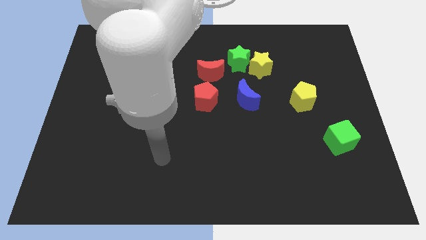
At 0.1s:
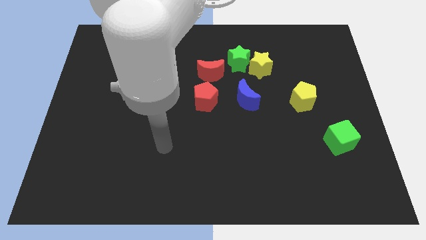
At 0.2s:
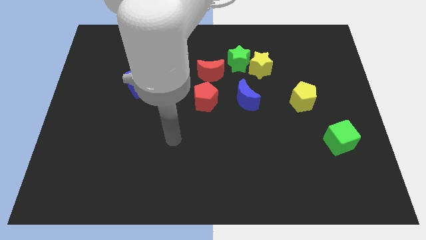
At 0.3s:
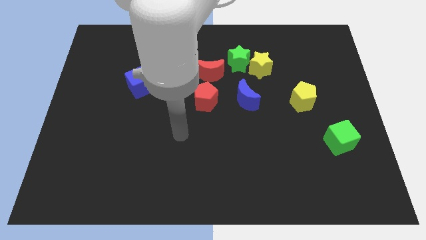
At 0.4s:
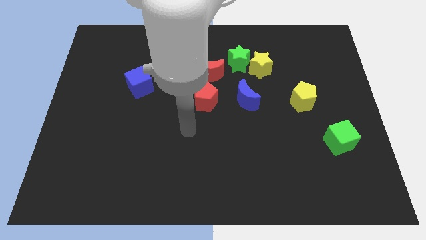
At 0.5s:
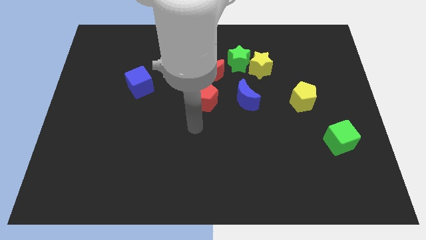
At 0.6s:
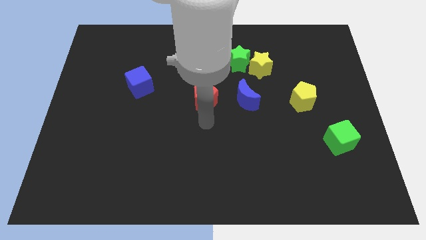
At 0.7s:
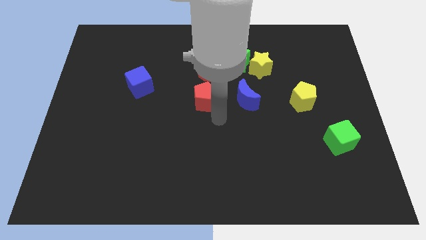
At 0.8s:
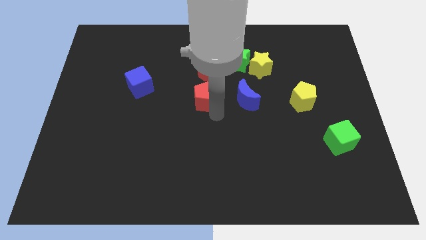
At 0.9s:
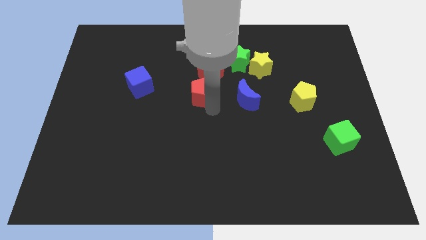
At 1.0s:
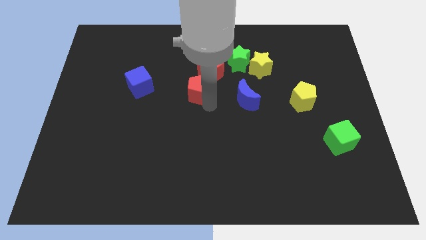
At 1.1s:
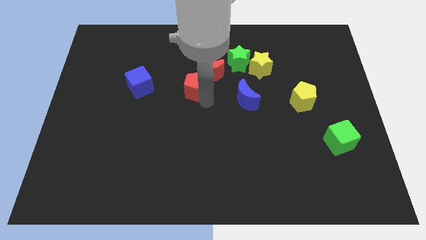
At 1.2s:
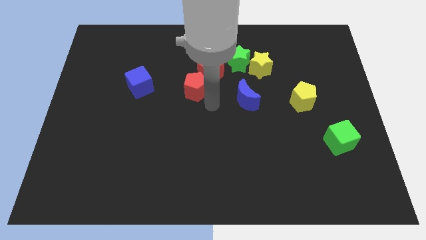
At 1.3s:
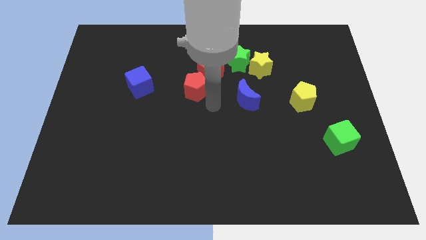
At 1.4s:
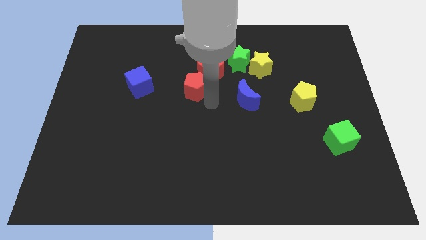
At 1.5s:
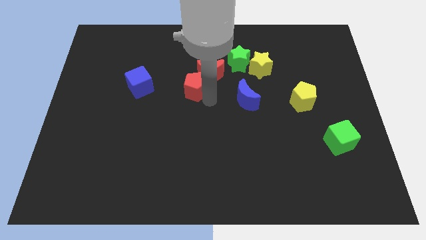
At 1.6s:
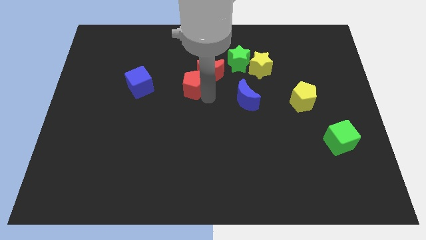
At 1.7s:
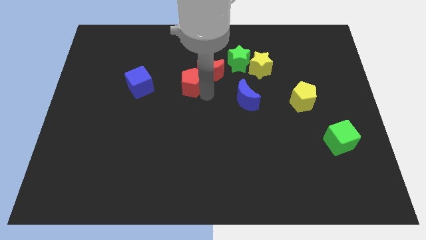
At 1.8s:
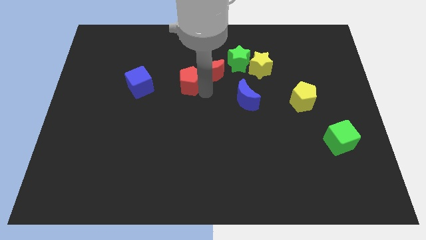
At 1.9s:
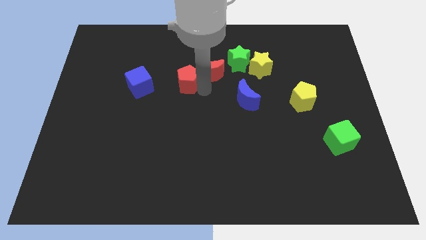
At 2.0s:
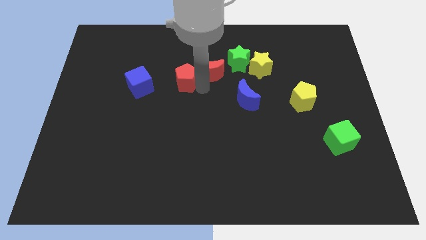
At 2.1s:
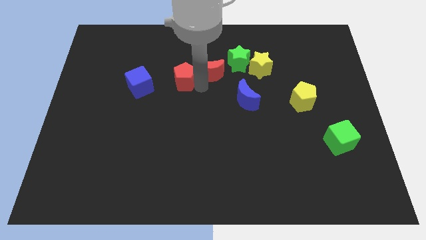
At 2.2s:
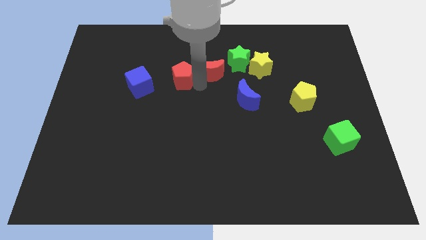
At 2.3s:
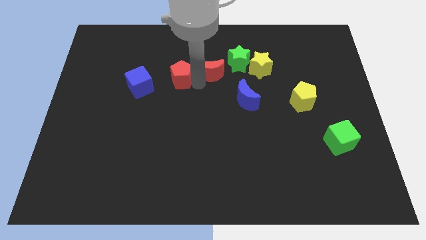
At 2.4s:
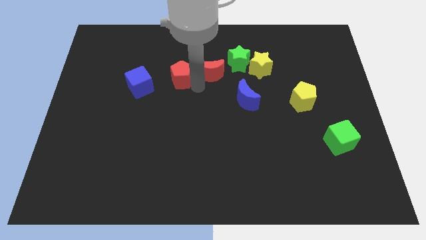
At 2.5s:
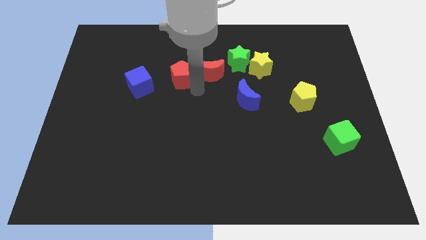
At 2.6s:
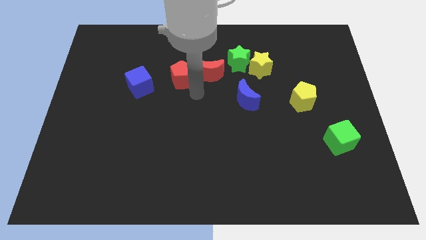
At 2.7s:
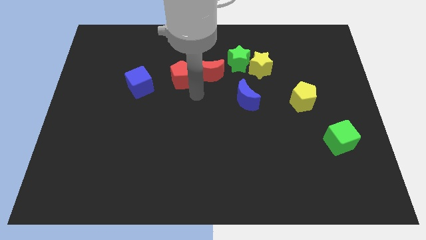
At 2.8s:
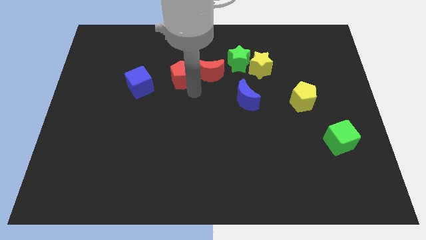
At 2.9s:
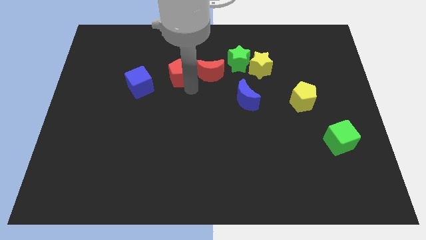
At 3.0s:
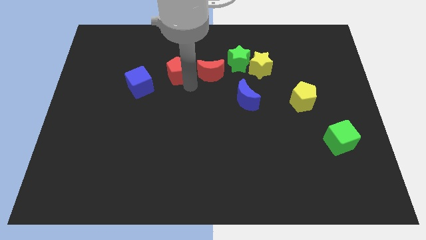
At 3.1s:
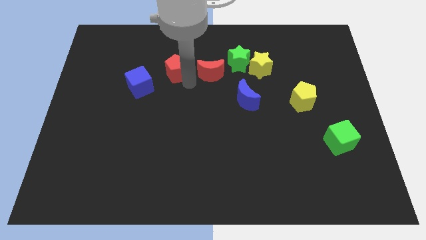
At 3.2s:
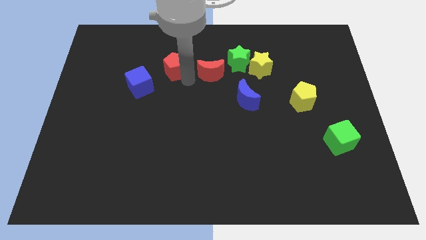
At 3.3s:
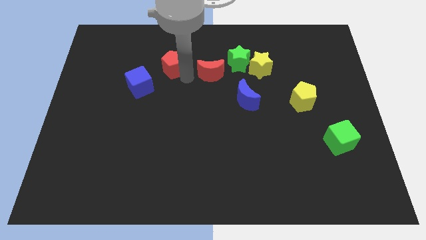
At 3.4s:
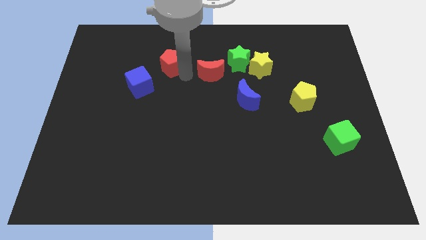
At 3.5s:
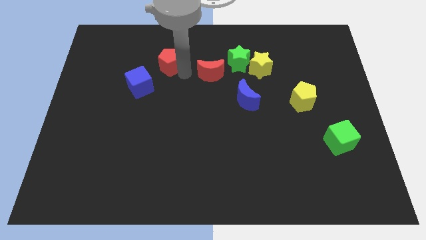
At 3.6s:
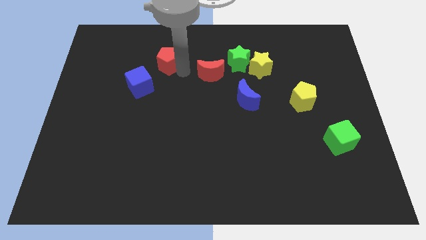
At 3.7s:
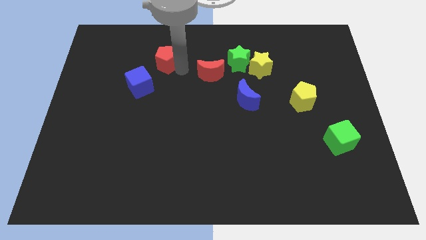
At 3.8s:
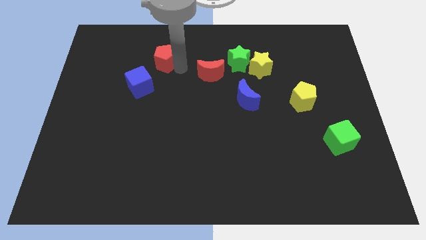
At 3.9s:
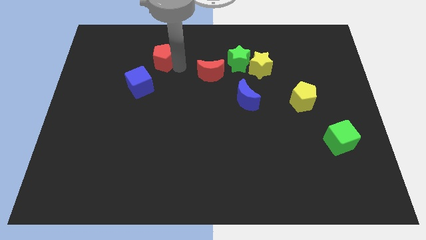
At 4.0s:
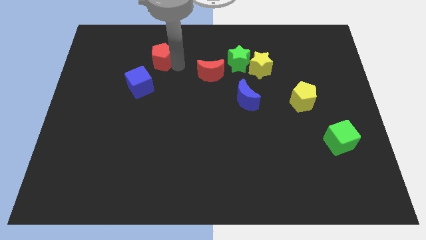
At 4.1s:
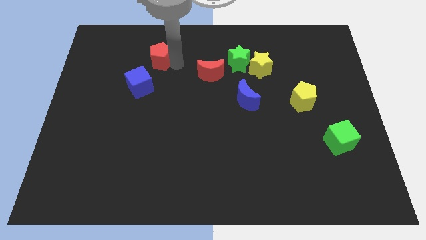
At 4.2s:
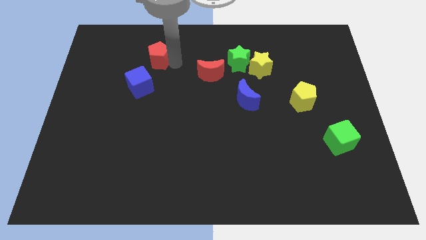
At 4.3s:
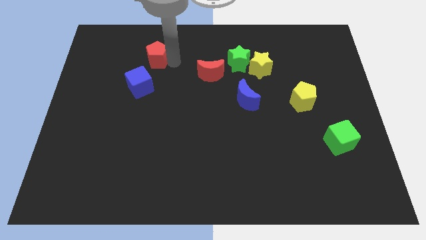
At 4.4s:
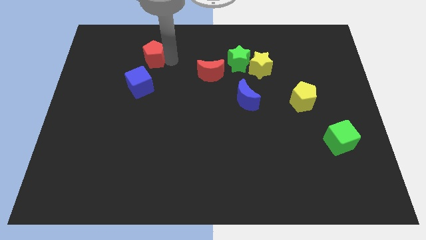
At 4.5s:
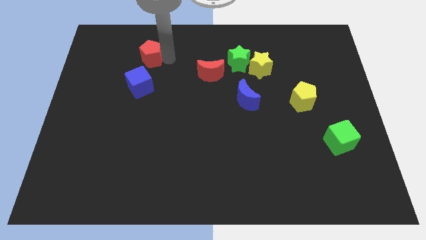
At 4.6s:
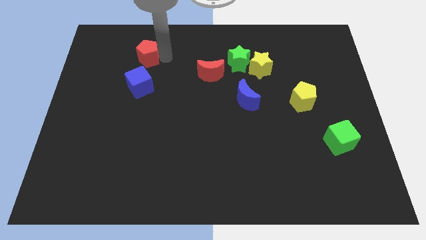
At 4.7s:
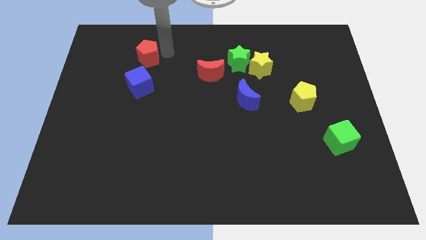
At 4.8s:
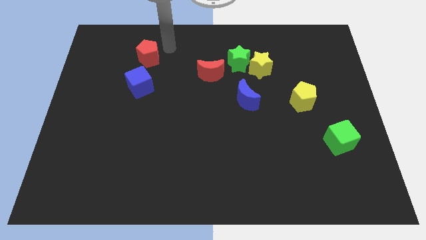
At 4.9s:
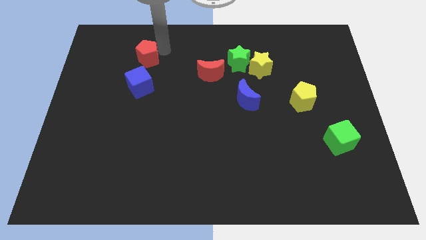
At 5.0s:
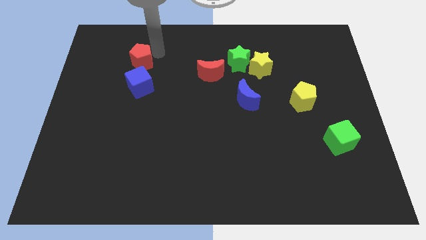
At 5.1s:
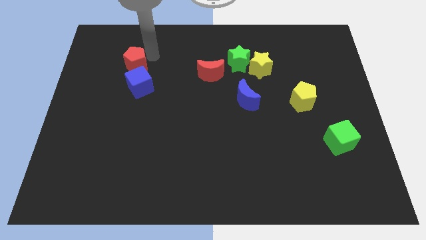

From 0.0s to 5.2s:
push the red pentagon diagonally up and to the left of the blue cube

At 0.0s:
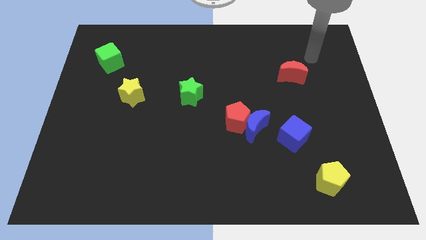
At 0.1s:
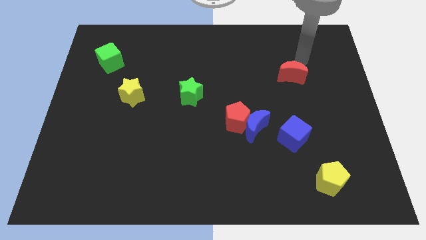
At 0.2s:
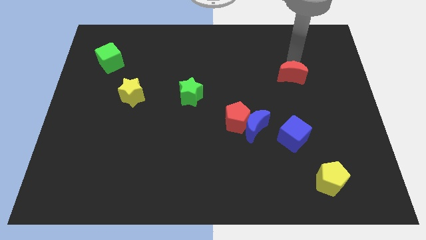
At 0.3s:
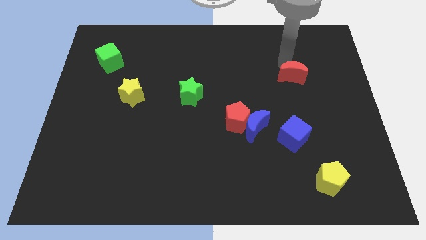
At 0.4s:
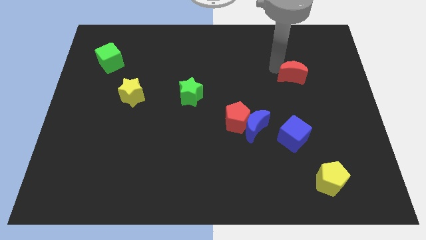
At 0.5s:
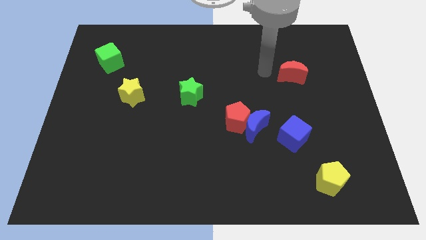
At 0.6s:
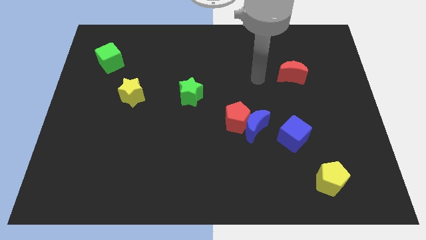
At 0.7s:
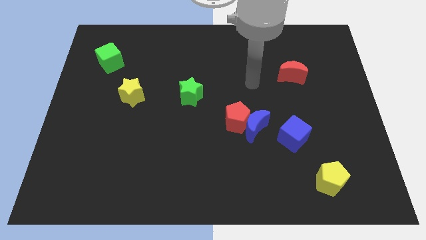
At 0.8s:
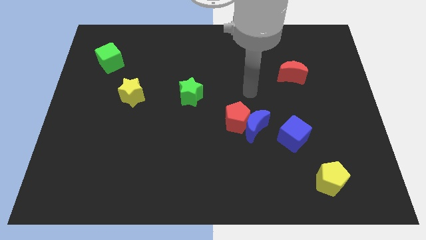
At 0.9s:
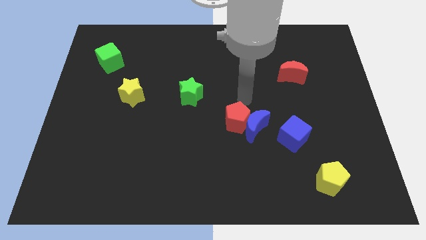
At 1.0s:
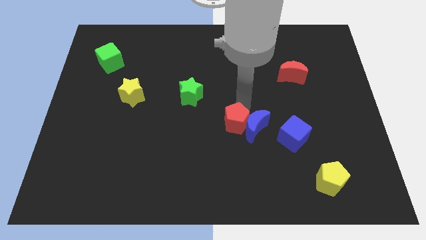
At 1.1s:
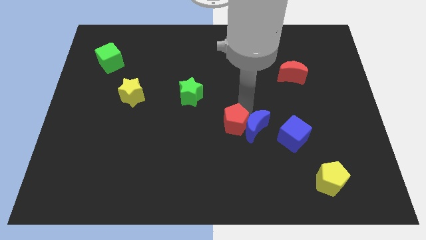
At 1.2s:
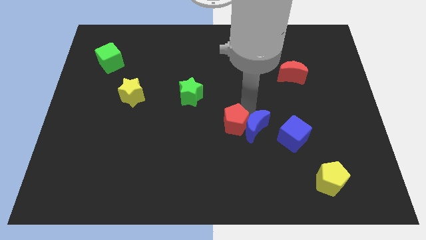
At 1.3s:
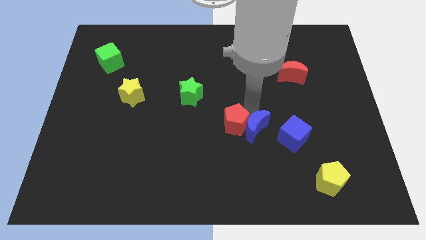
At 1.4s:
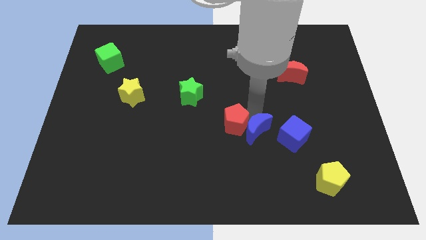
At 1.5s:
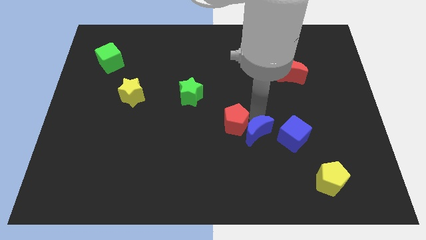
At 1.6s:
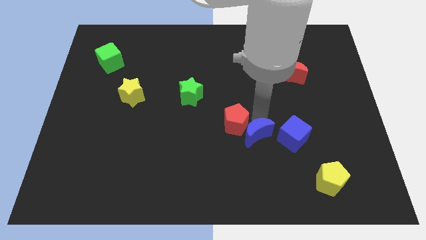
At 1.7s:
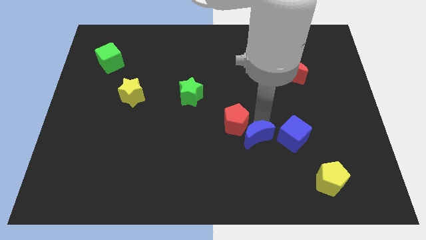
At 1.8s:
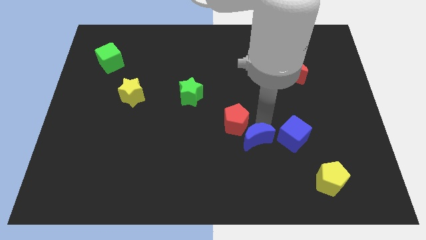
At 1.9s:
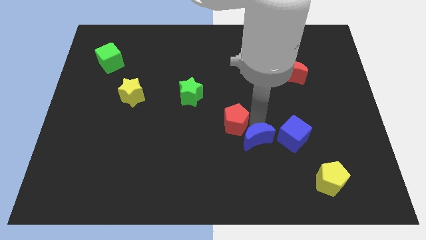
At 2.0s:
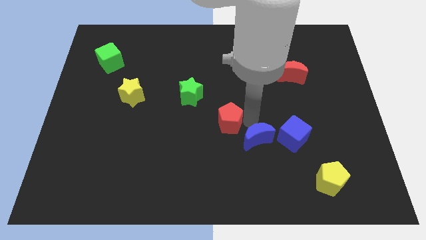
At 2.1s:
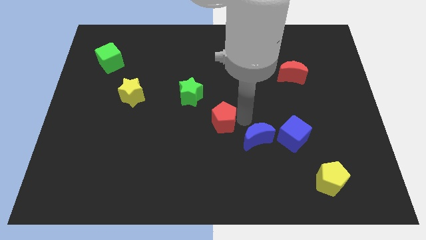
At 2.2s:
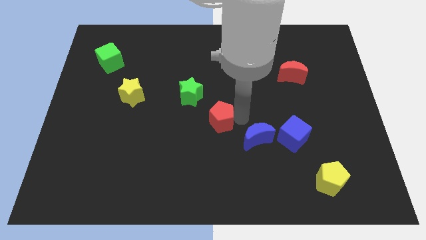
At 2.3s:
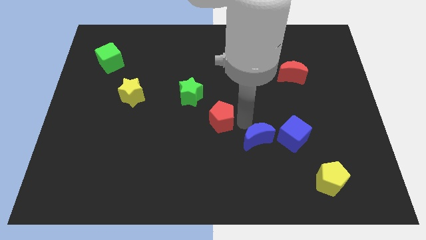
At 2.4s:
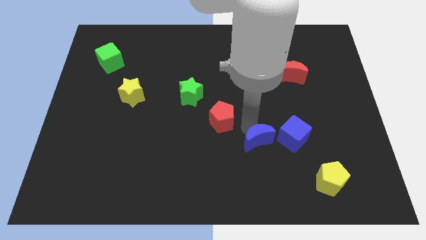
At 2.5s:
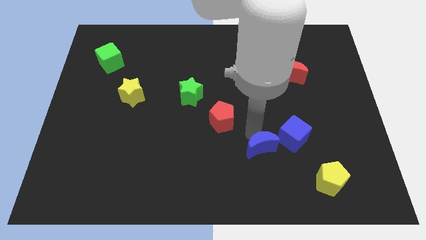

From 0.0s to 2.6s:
slide the blue moon to the bottom left of the blue cube
